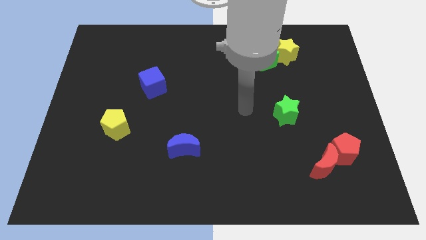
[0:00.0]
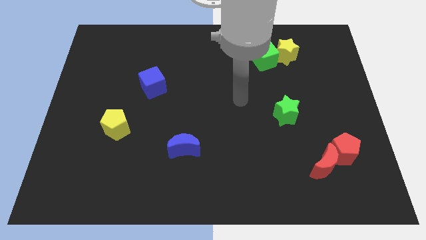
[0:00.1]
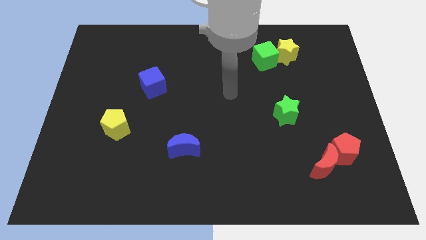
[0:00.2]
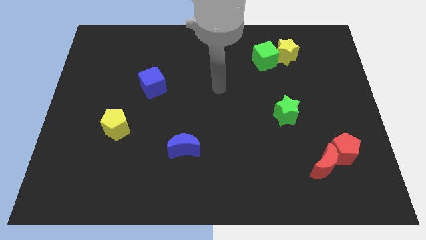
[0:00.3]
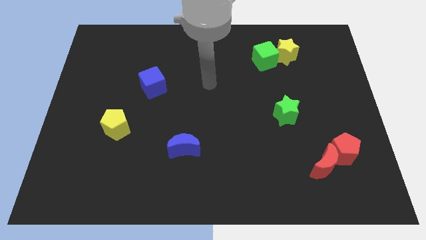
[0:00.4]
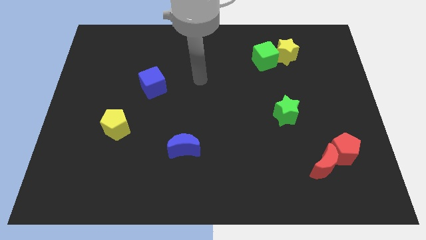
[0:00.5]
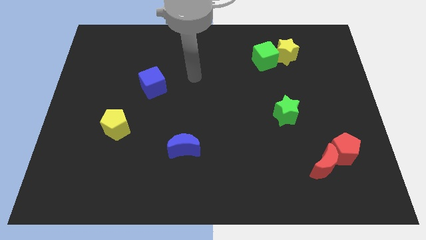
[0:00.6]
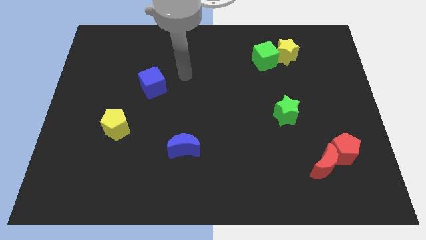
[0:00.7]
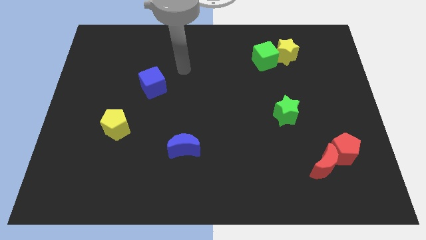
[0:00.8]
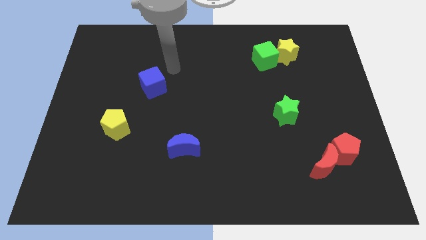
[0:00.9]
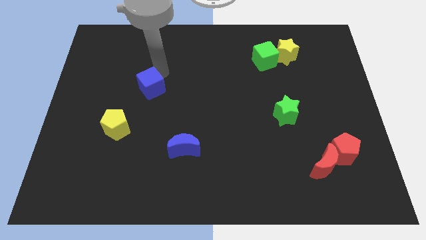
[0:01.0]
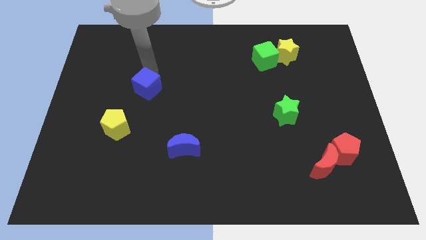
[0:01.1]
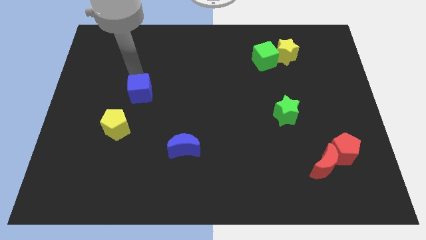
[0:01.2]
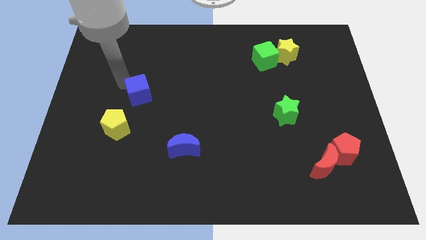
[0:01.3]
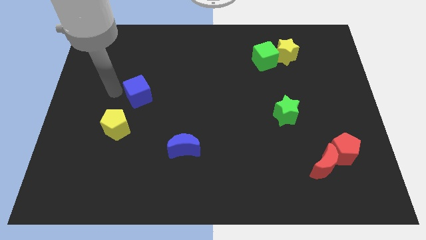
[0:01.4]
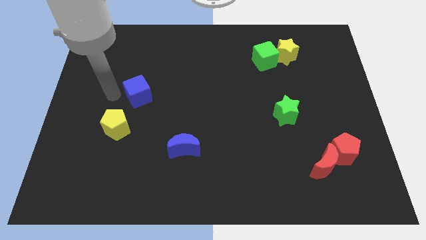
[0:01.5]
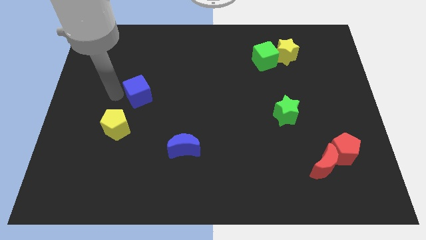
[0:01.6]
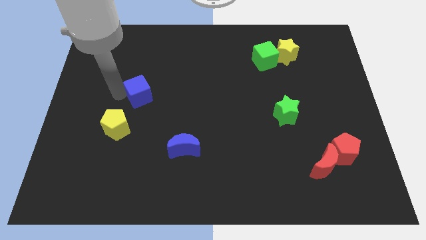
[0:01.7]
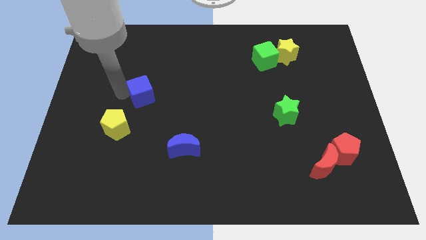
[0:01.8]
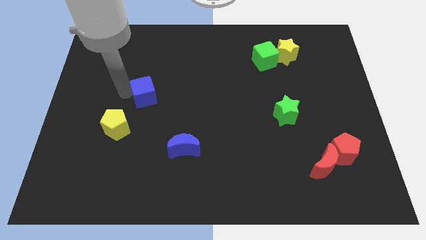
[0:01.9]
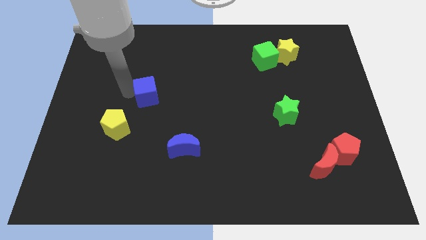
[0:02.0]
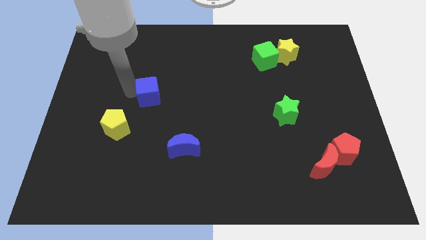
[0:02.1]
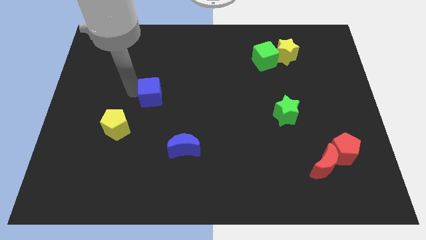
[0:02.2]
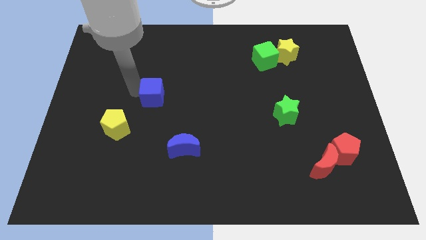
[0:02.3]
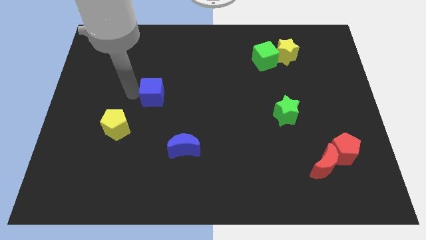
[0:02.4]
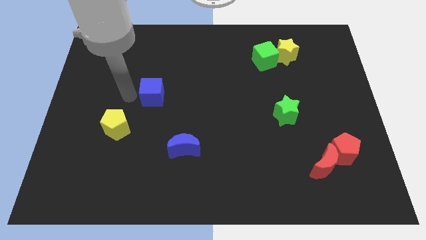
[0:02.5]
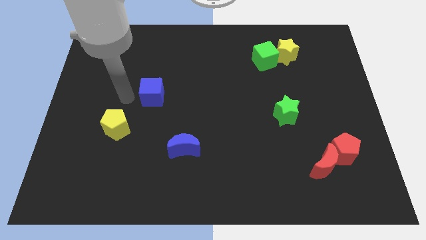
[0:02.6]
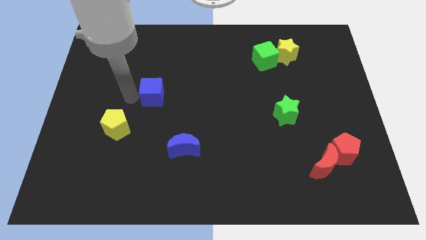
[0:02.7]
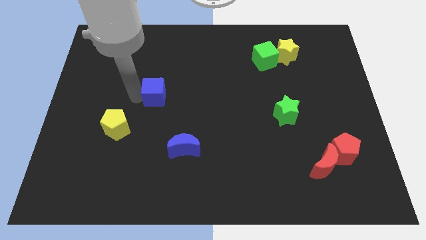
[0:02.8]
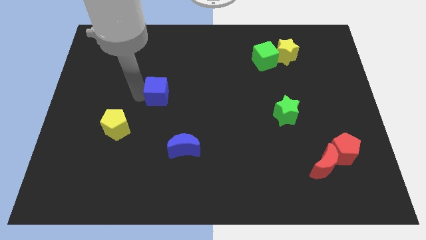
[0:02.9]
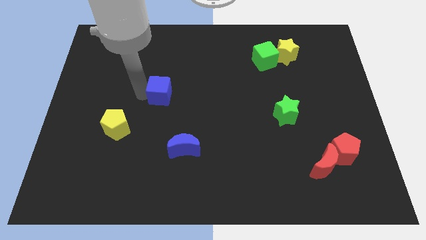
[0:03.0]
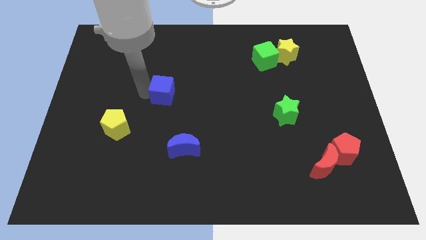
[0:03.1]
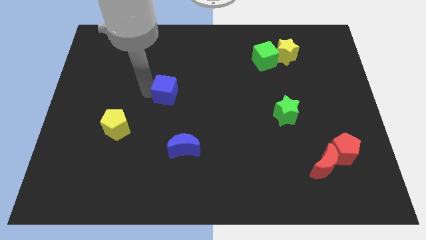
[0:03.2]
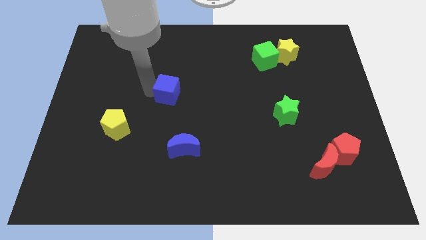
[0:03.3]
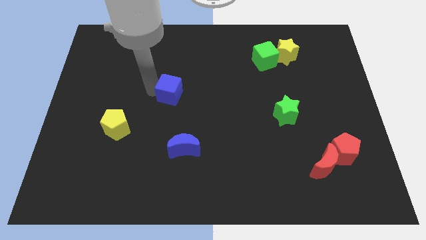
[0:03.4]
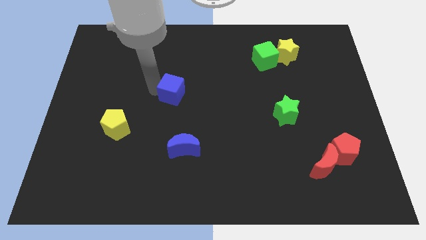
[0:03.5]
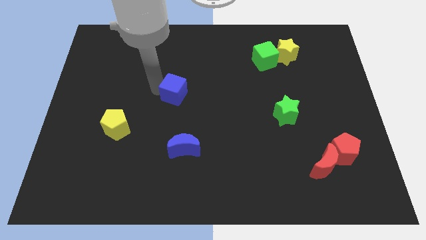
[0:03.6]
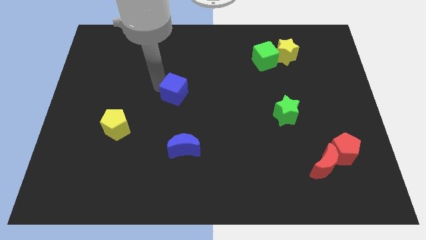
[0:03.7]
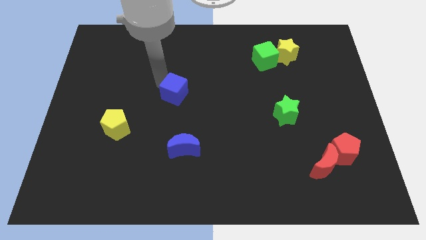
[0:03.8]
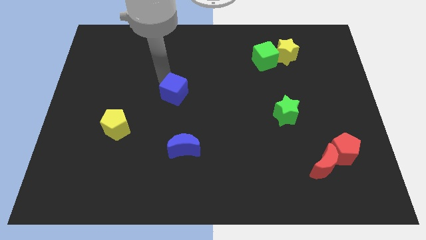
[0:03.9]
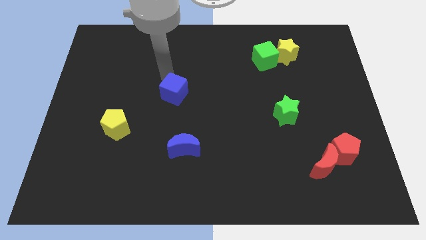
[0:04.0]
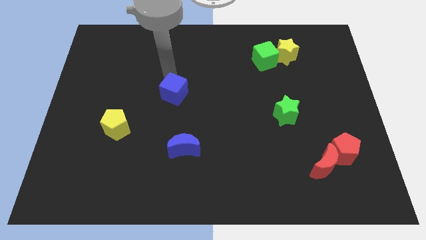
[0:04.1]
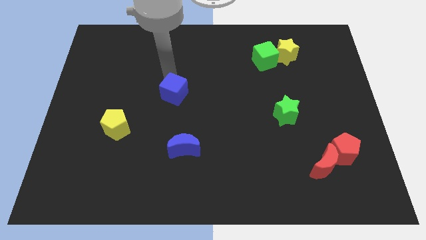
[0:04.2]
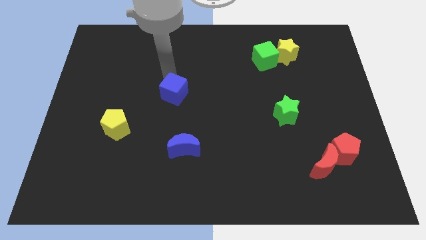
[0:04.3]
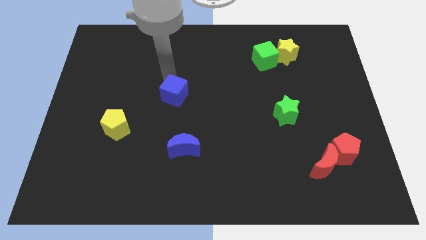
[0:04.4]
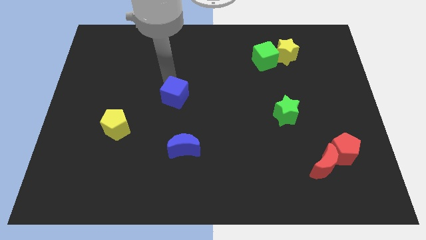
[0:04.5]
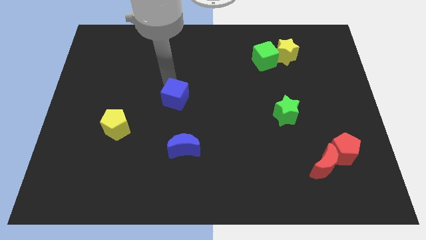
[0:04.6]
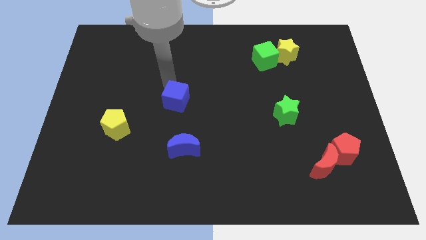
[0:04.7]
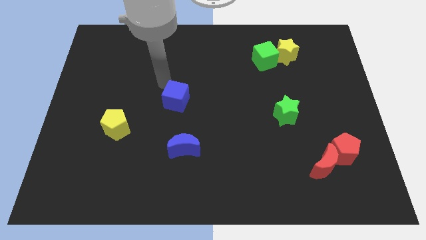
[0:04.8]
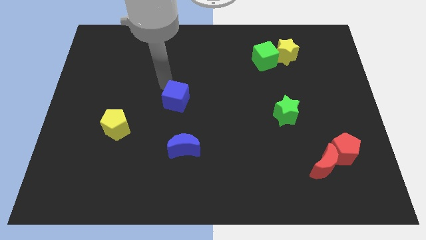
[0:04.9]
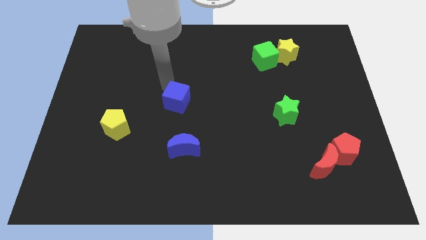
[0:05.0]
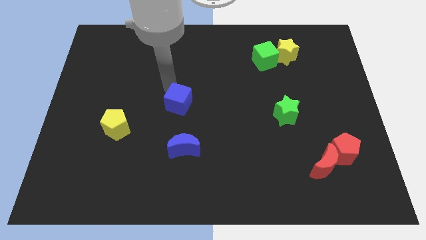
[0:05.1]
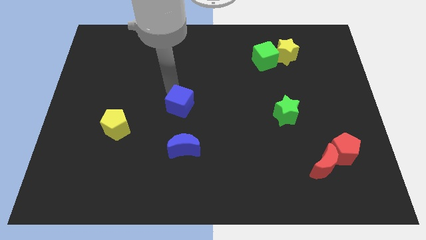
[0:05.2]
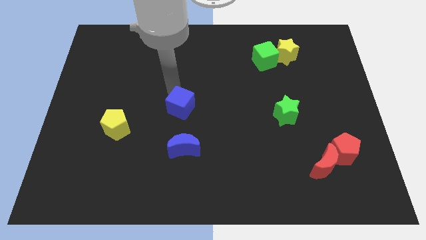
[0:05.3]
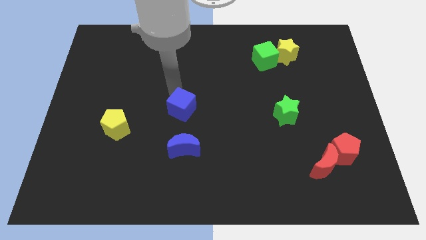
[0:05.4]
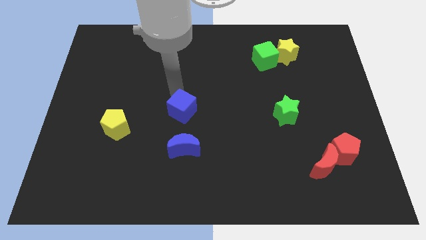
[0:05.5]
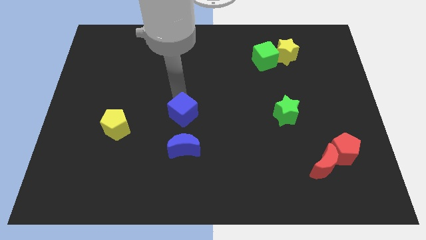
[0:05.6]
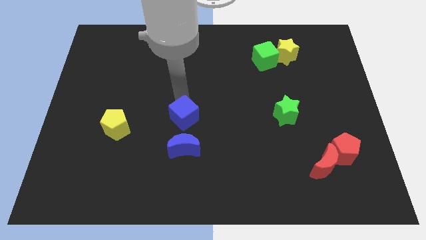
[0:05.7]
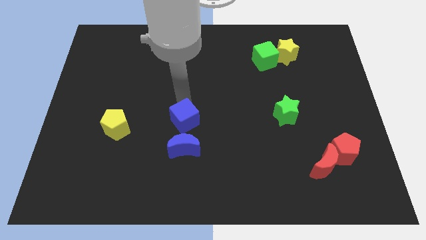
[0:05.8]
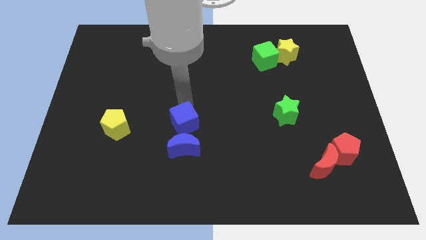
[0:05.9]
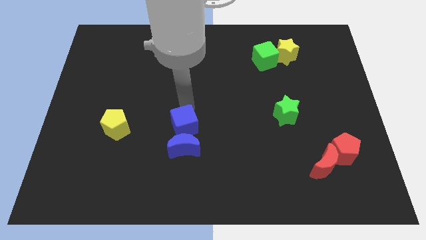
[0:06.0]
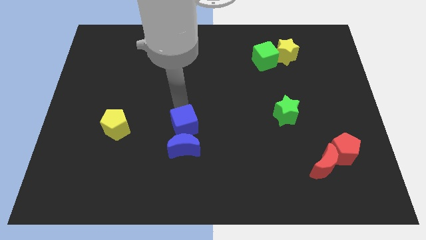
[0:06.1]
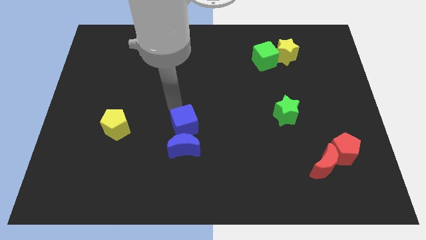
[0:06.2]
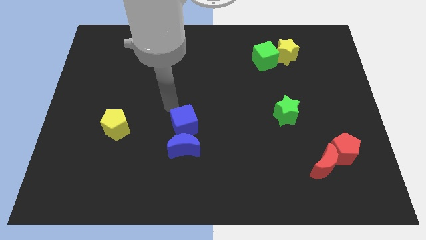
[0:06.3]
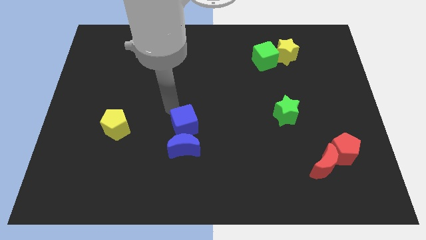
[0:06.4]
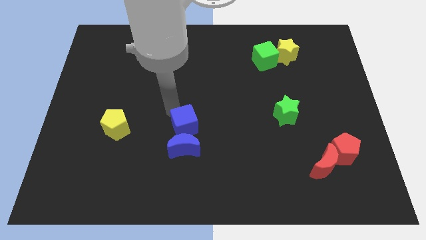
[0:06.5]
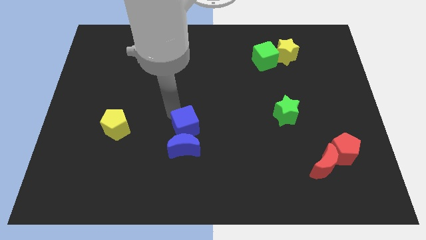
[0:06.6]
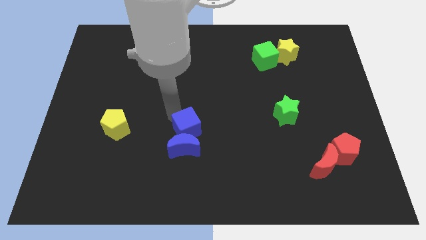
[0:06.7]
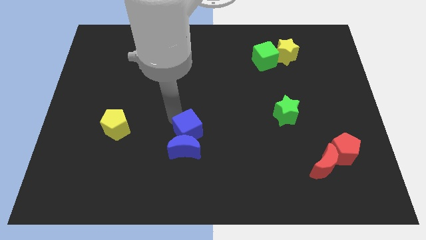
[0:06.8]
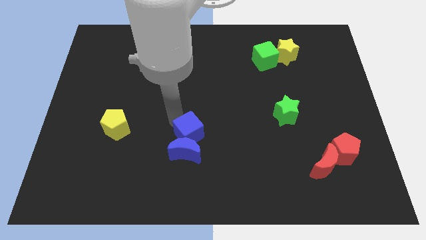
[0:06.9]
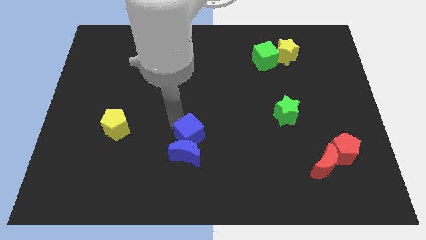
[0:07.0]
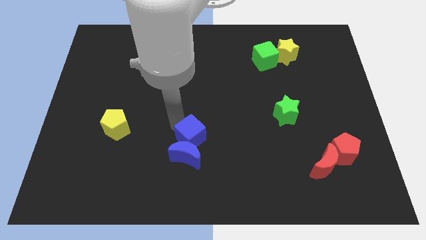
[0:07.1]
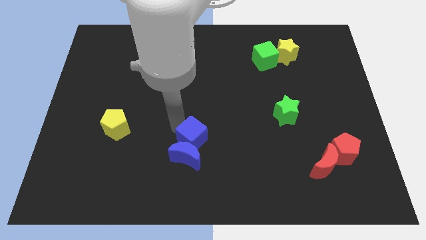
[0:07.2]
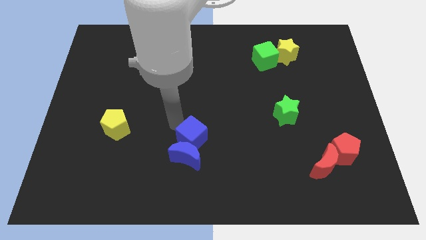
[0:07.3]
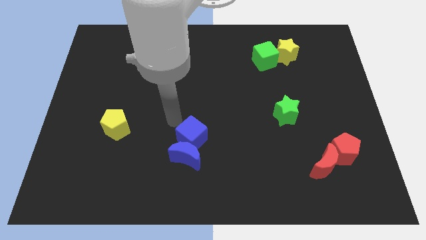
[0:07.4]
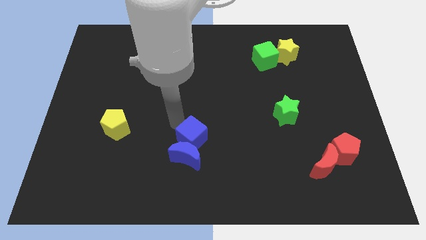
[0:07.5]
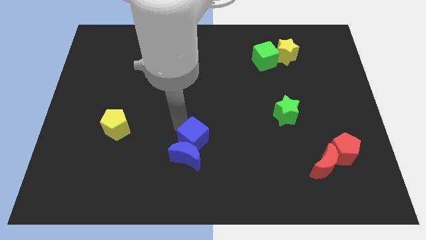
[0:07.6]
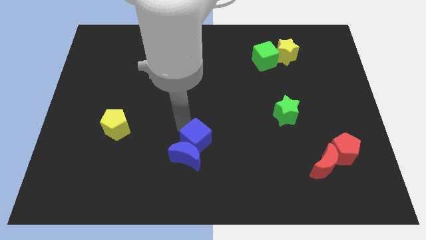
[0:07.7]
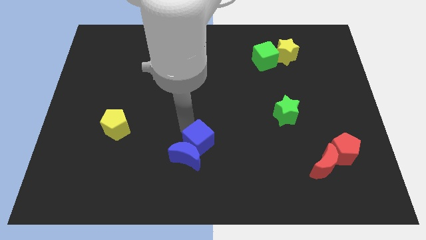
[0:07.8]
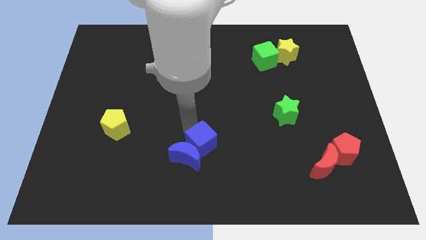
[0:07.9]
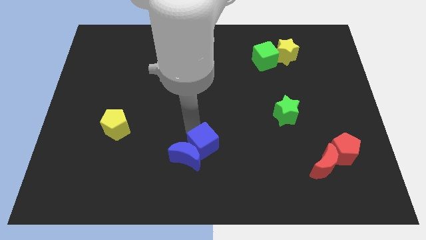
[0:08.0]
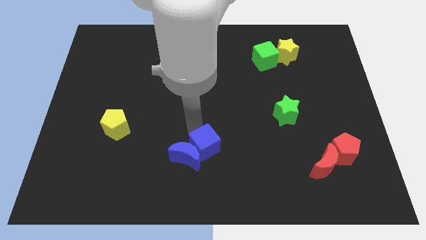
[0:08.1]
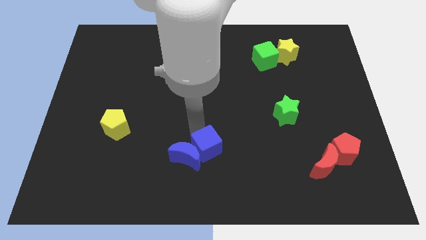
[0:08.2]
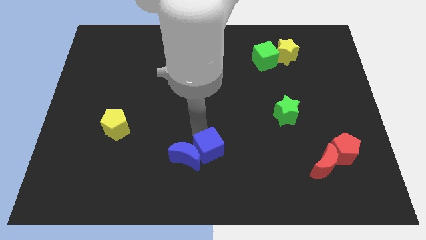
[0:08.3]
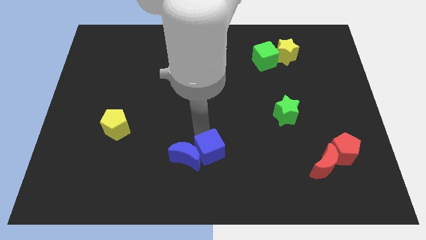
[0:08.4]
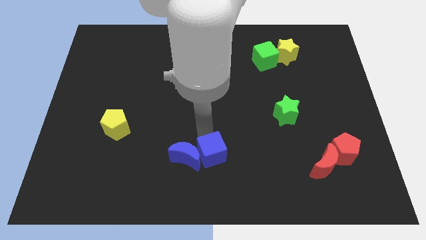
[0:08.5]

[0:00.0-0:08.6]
put the blue cube to the bottom side
